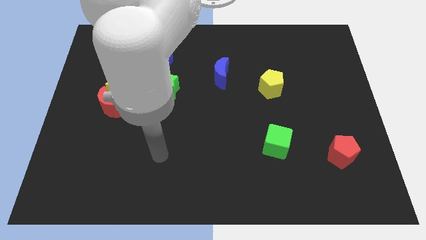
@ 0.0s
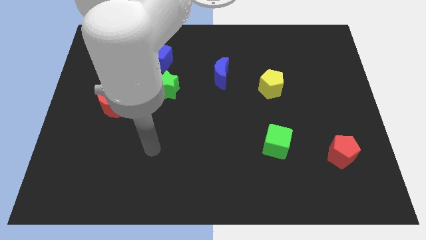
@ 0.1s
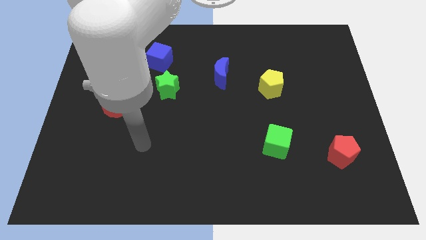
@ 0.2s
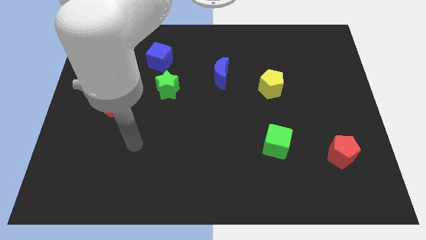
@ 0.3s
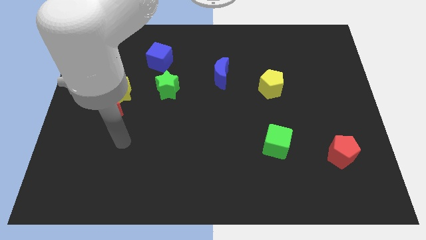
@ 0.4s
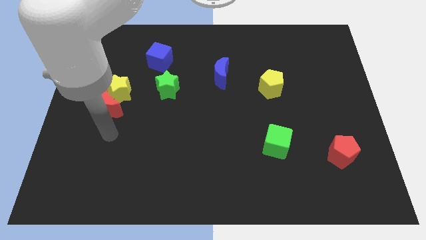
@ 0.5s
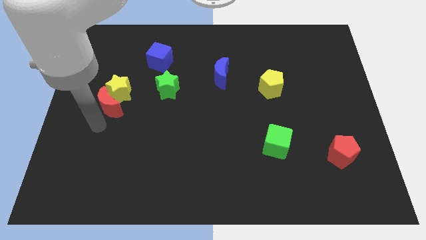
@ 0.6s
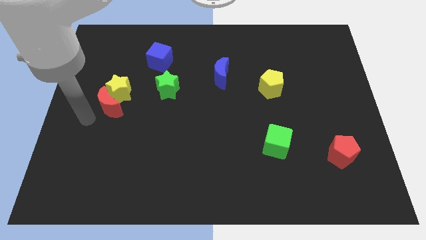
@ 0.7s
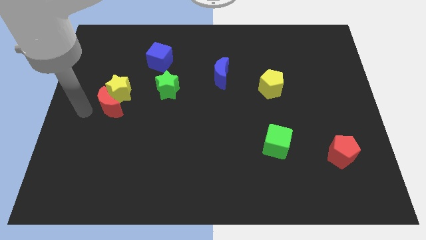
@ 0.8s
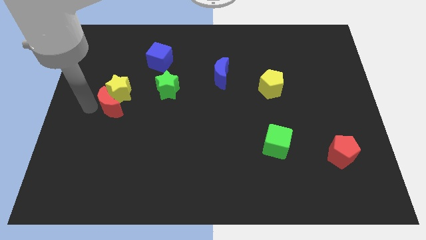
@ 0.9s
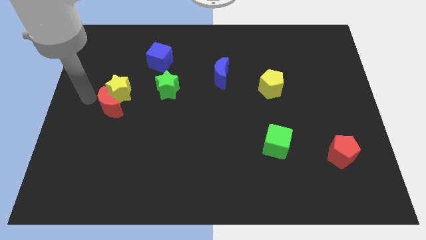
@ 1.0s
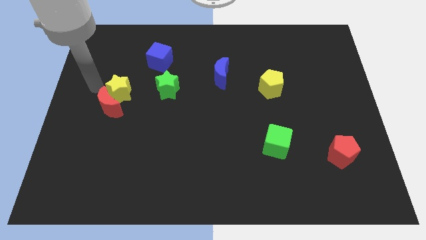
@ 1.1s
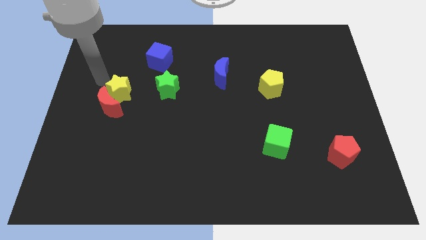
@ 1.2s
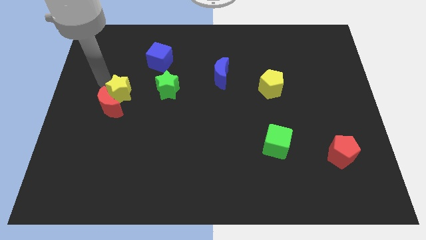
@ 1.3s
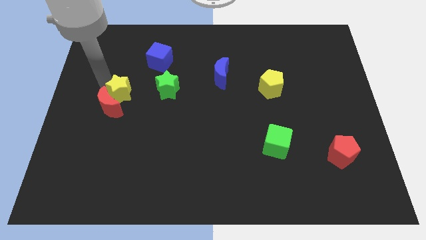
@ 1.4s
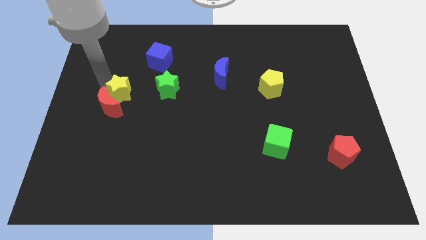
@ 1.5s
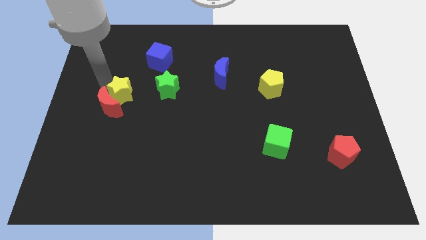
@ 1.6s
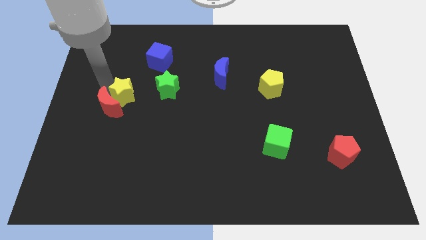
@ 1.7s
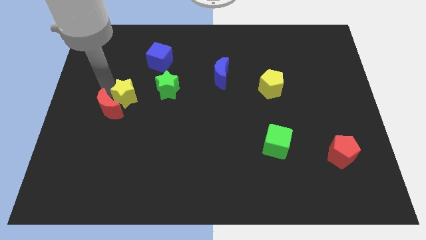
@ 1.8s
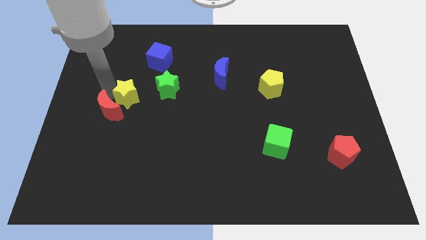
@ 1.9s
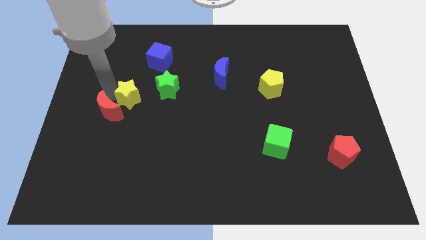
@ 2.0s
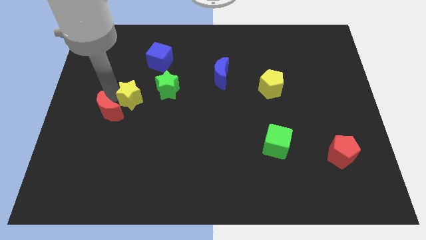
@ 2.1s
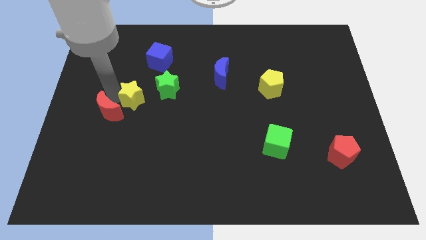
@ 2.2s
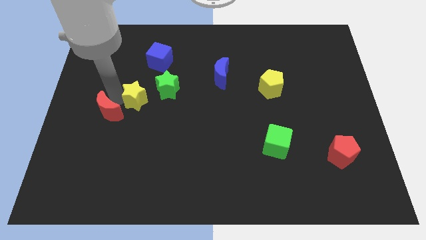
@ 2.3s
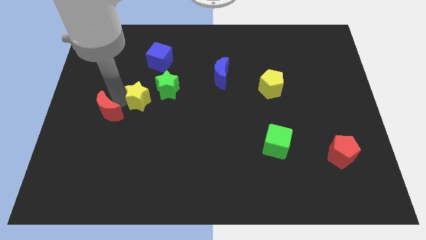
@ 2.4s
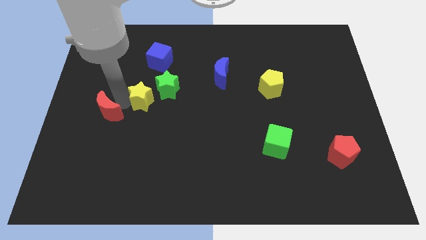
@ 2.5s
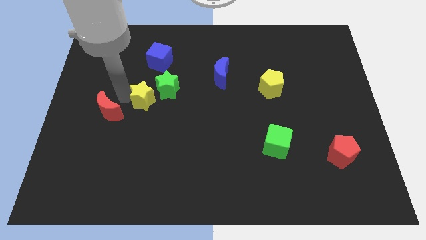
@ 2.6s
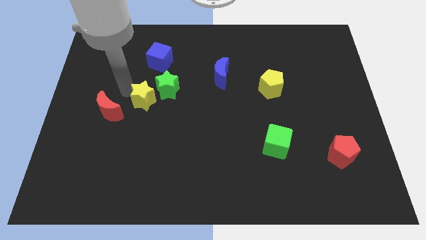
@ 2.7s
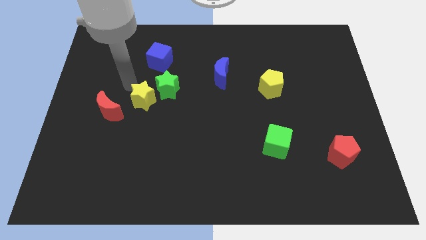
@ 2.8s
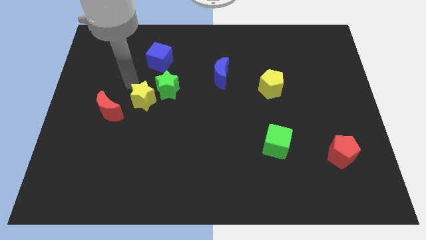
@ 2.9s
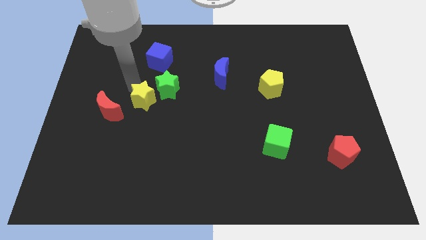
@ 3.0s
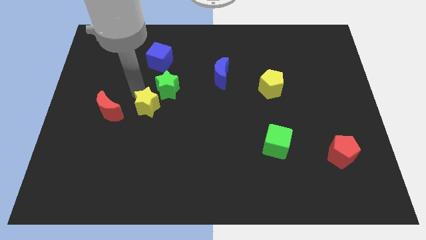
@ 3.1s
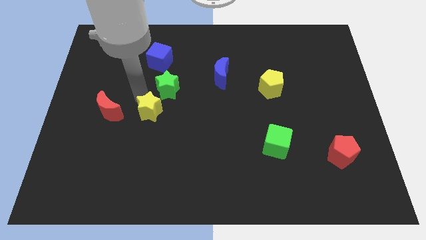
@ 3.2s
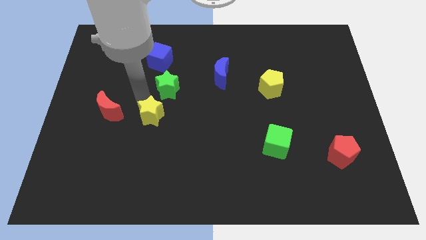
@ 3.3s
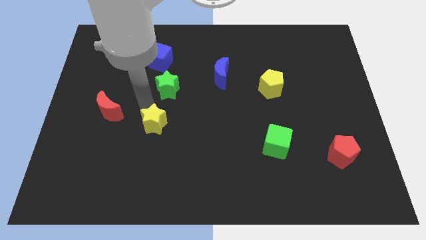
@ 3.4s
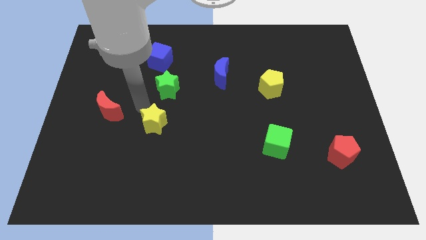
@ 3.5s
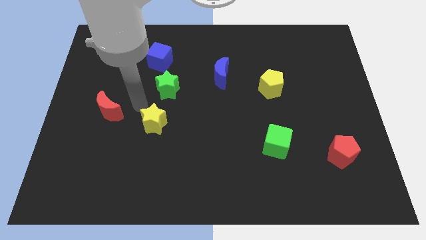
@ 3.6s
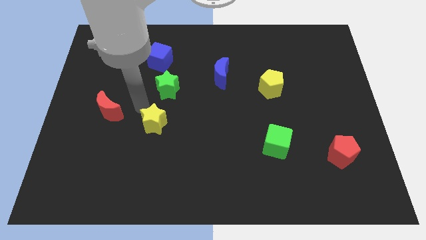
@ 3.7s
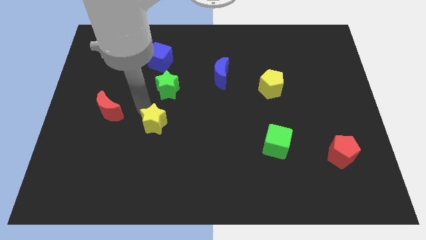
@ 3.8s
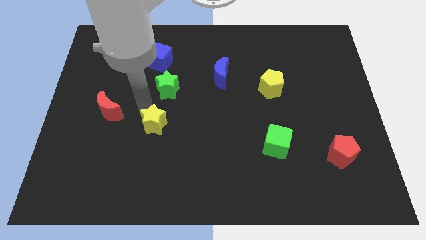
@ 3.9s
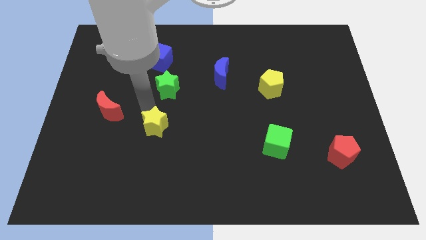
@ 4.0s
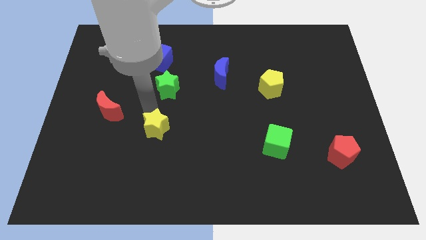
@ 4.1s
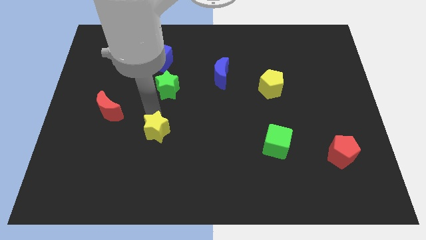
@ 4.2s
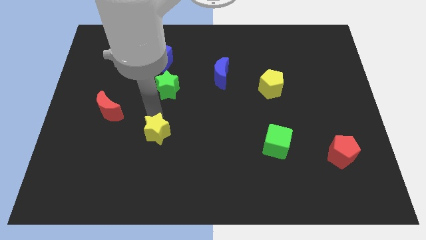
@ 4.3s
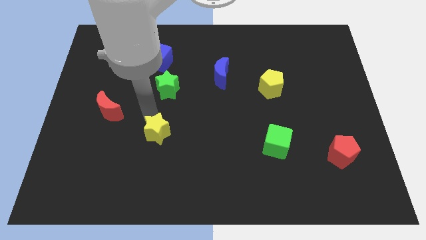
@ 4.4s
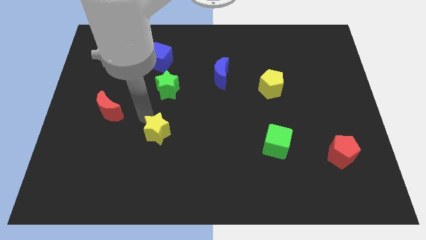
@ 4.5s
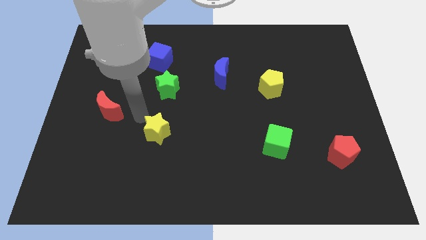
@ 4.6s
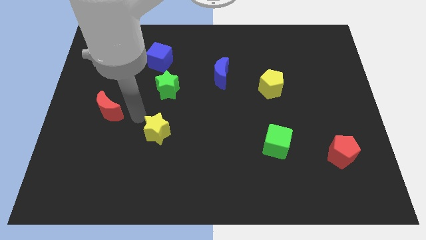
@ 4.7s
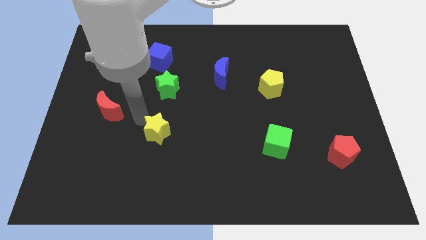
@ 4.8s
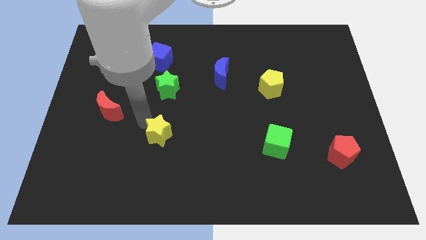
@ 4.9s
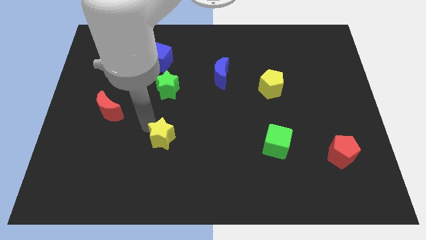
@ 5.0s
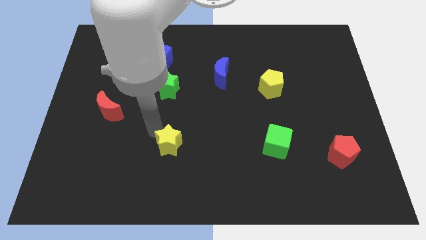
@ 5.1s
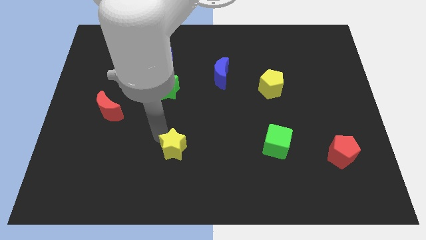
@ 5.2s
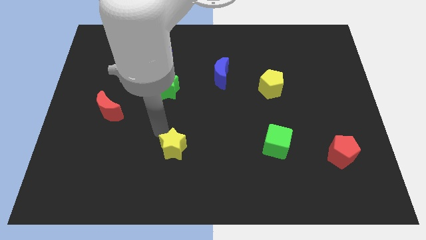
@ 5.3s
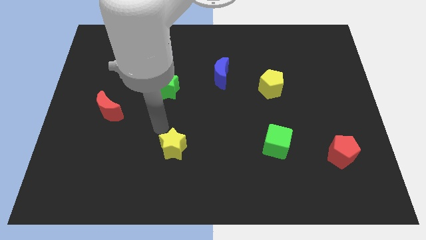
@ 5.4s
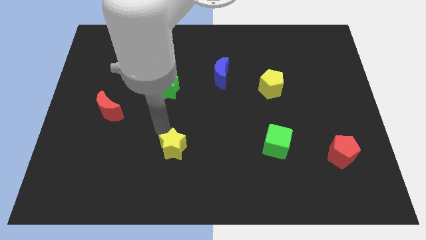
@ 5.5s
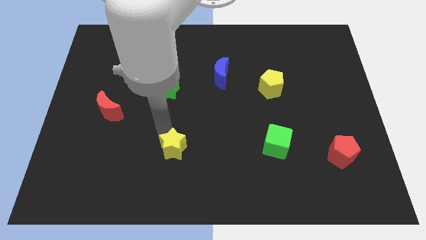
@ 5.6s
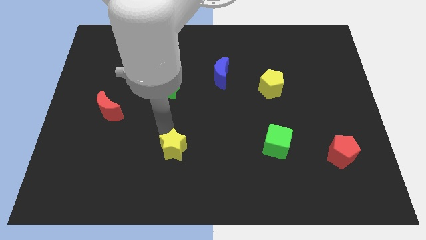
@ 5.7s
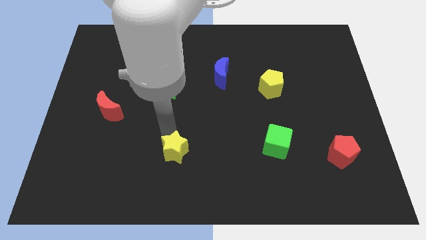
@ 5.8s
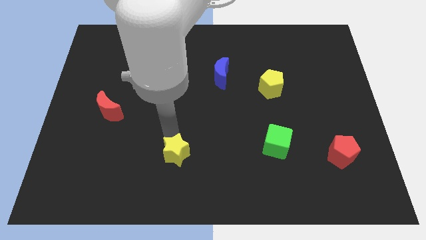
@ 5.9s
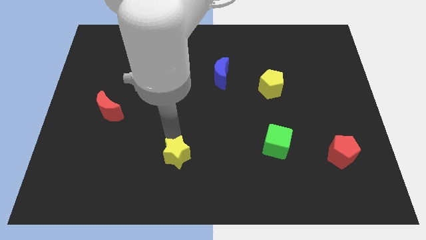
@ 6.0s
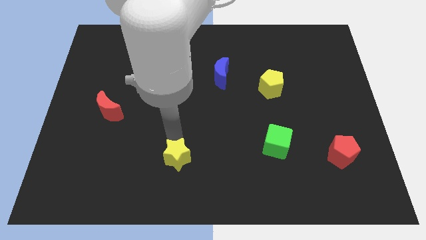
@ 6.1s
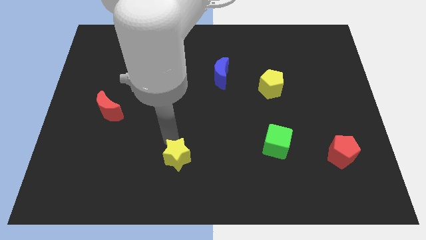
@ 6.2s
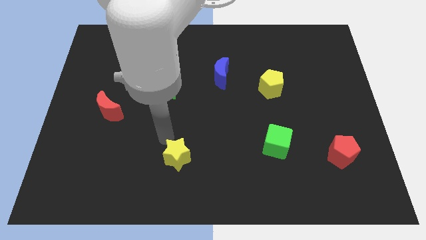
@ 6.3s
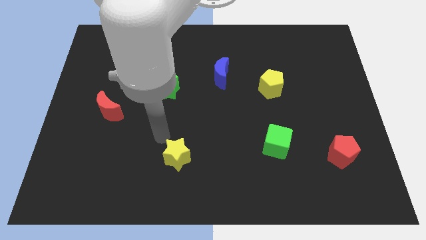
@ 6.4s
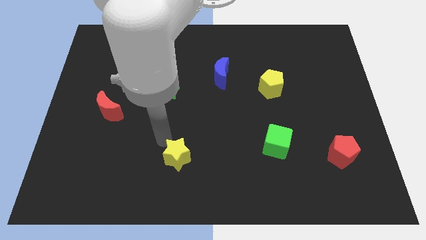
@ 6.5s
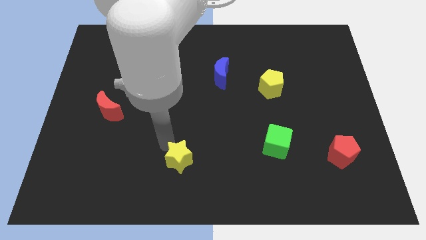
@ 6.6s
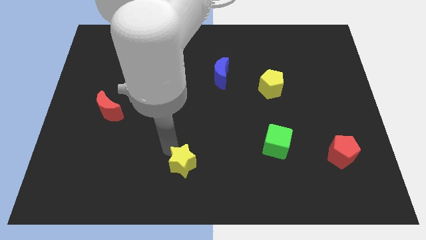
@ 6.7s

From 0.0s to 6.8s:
slide the yellow star to the bottom side
